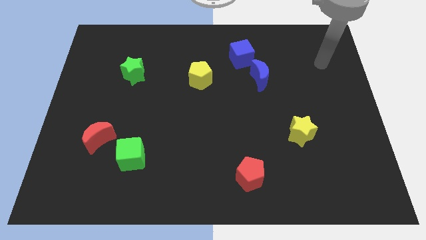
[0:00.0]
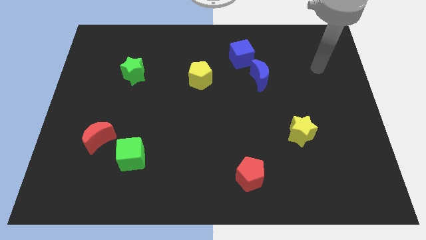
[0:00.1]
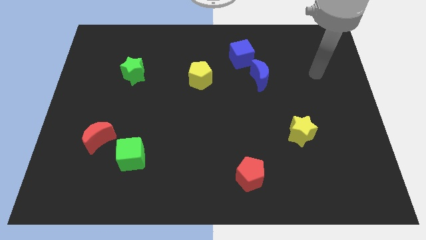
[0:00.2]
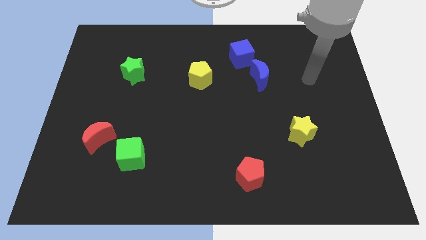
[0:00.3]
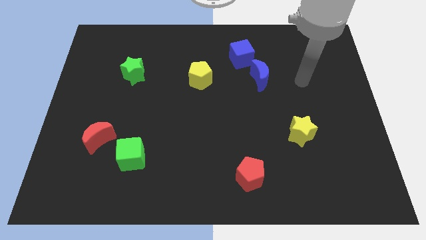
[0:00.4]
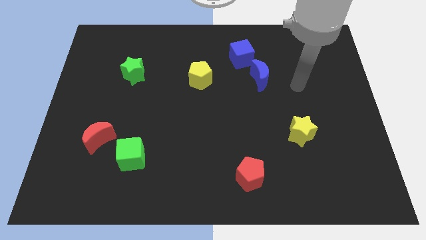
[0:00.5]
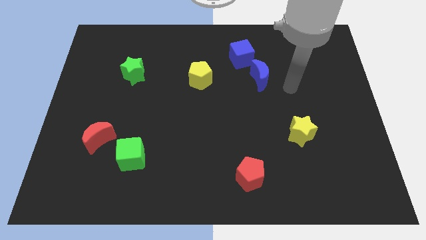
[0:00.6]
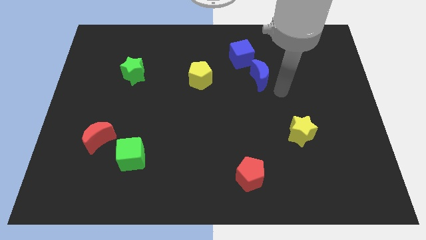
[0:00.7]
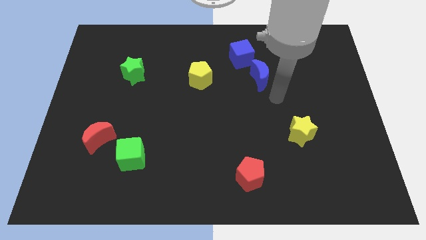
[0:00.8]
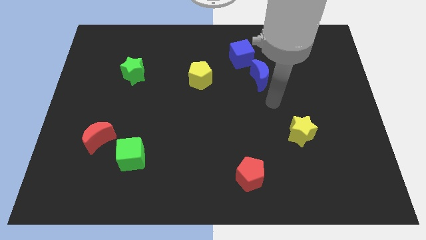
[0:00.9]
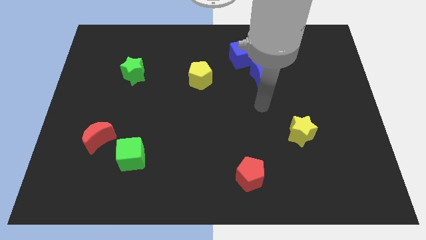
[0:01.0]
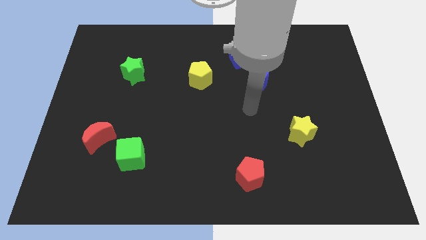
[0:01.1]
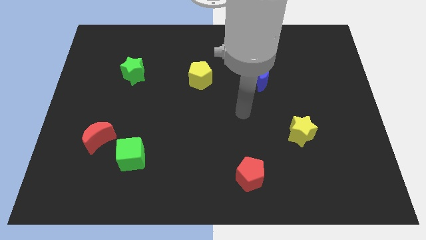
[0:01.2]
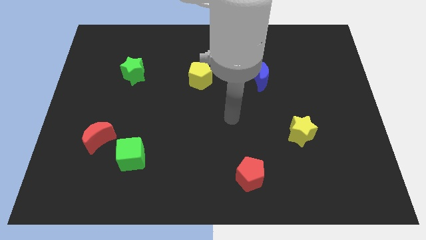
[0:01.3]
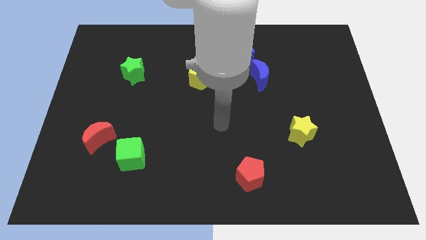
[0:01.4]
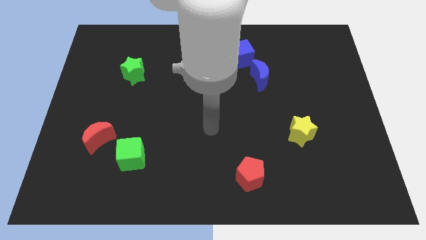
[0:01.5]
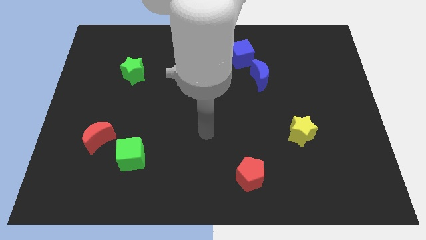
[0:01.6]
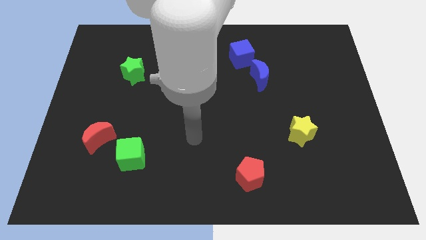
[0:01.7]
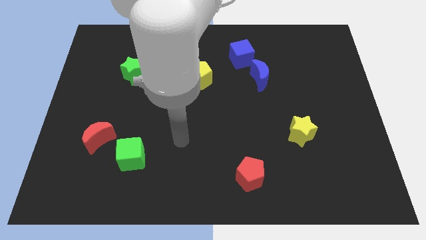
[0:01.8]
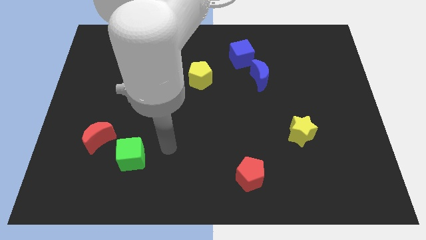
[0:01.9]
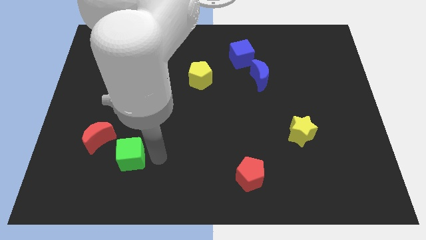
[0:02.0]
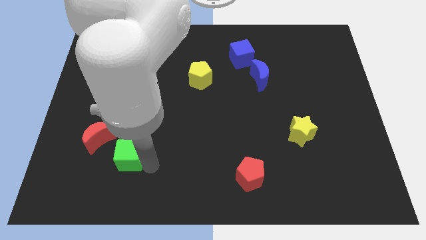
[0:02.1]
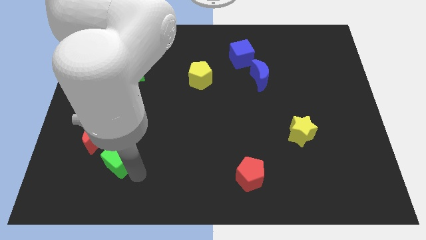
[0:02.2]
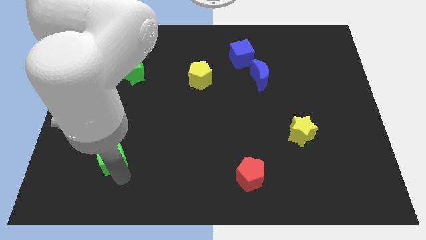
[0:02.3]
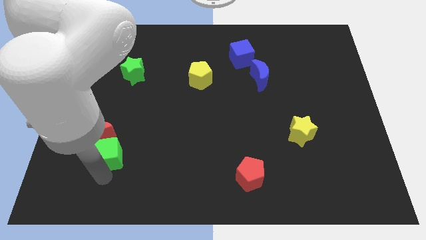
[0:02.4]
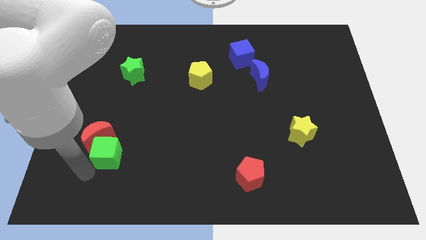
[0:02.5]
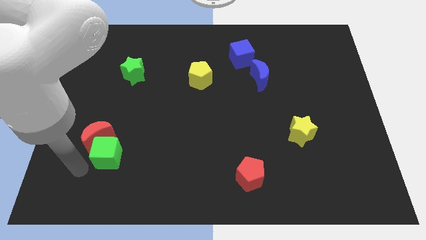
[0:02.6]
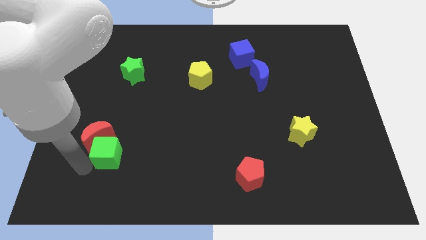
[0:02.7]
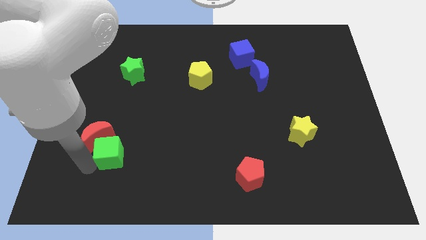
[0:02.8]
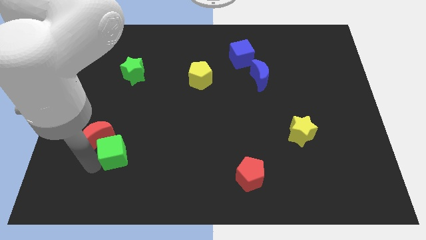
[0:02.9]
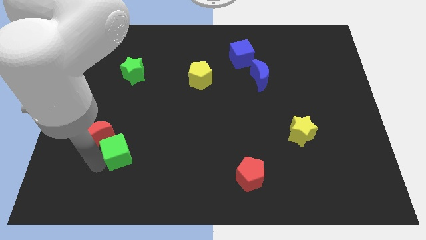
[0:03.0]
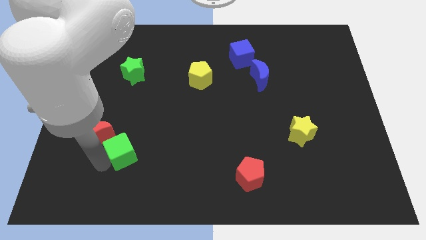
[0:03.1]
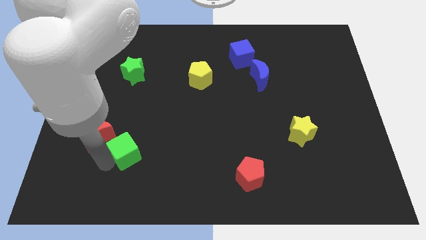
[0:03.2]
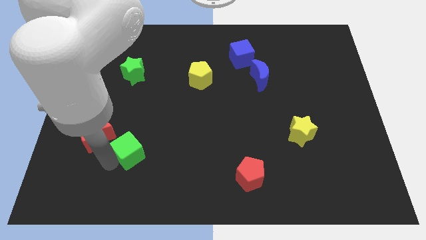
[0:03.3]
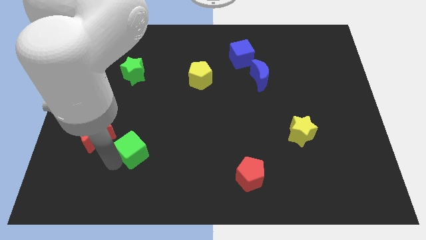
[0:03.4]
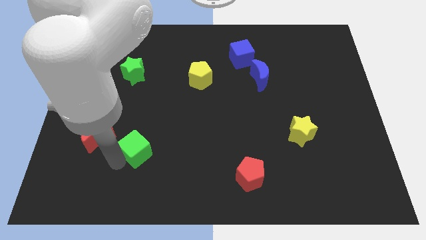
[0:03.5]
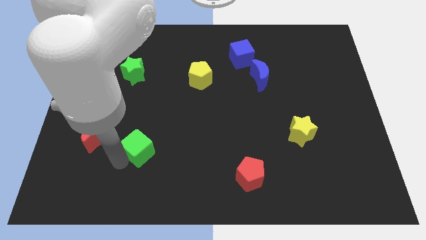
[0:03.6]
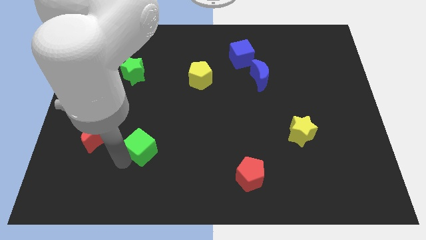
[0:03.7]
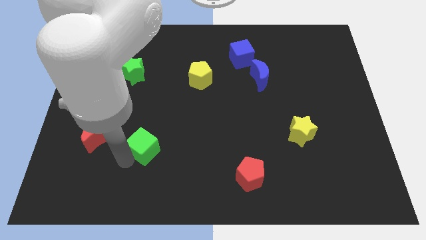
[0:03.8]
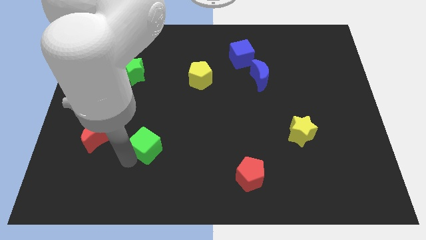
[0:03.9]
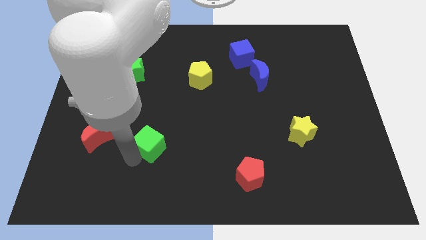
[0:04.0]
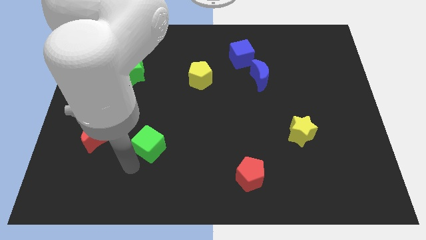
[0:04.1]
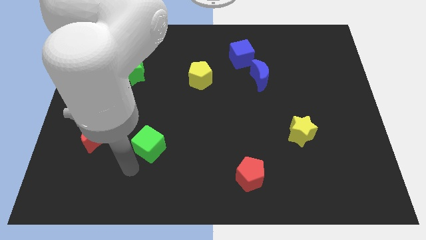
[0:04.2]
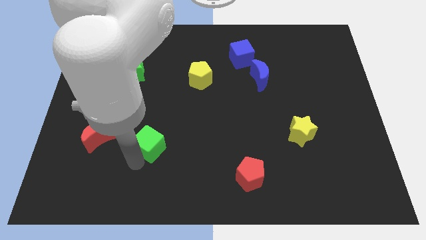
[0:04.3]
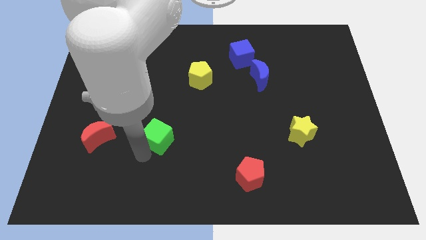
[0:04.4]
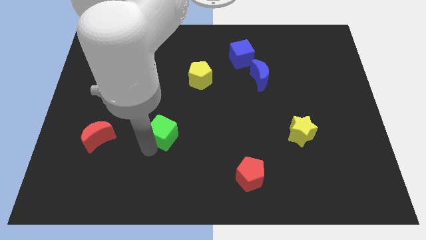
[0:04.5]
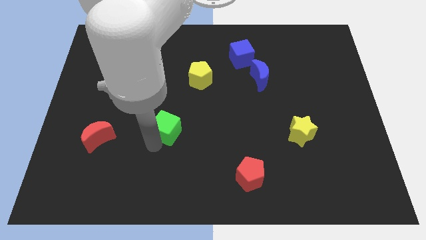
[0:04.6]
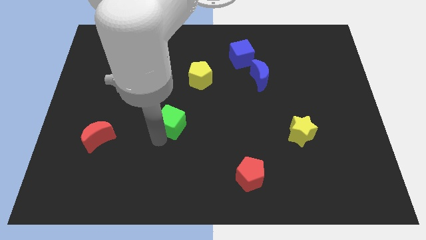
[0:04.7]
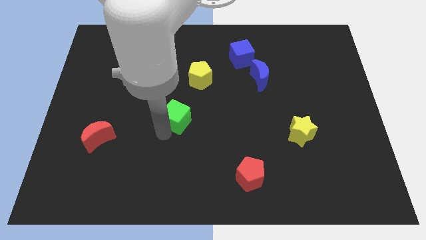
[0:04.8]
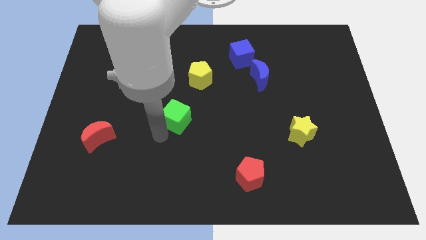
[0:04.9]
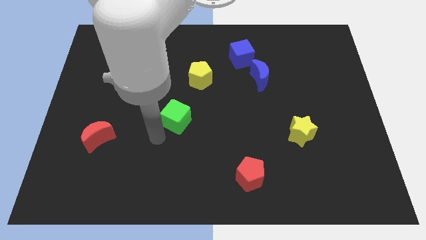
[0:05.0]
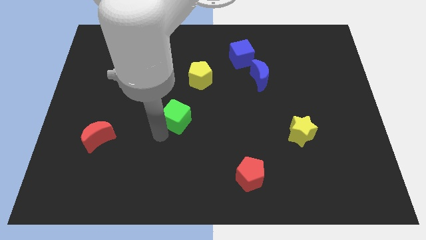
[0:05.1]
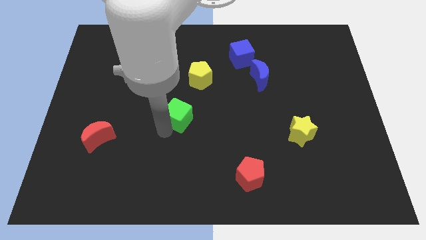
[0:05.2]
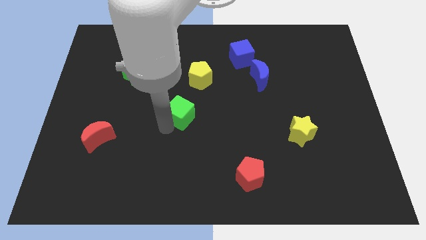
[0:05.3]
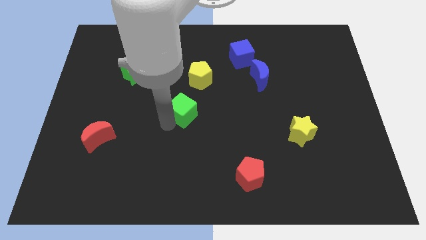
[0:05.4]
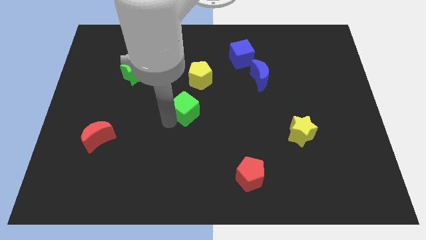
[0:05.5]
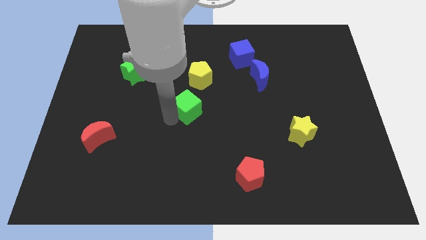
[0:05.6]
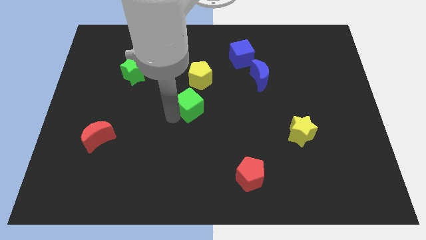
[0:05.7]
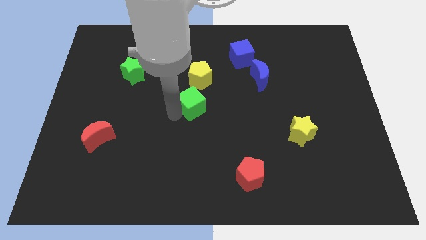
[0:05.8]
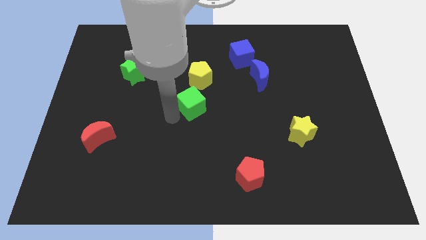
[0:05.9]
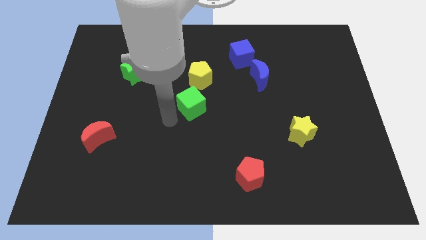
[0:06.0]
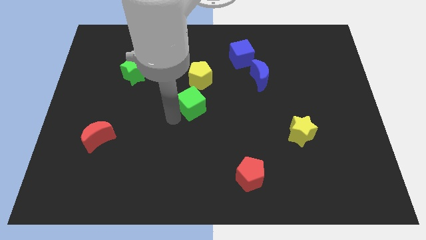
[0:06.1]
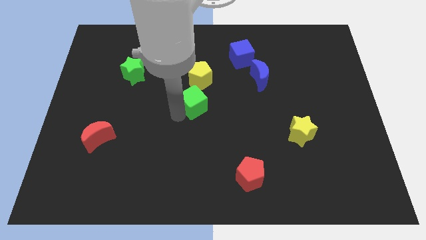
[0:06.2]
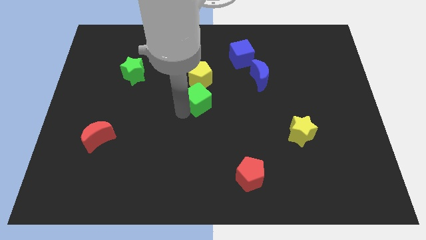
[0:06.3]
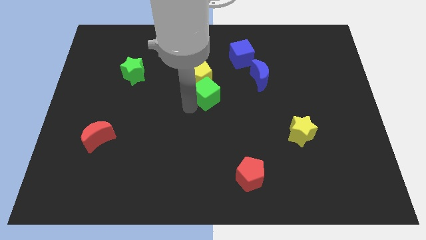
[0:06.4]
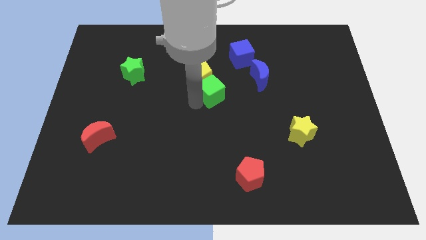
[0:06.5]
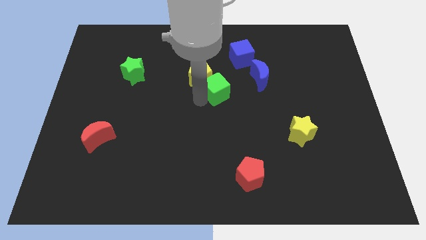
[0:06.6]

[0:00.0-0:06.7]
slide the green cube to the right of the yellow pentagon

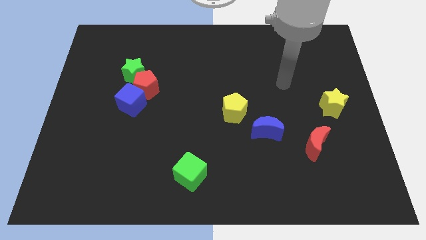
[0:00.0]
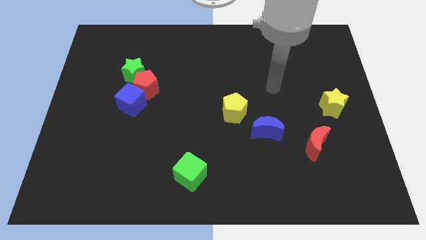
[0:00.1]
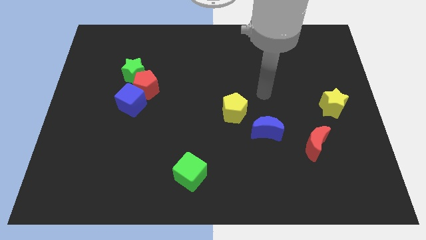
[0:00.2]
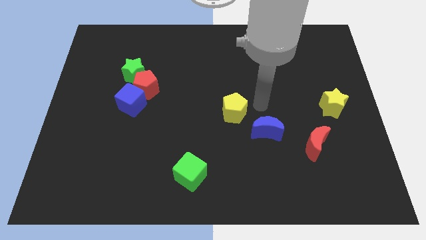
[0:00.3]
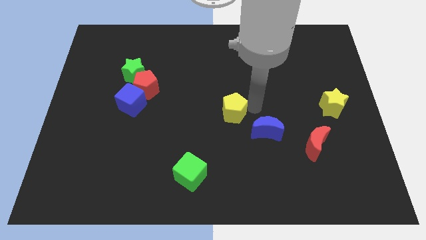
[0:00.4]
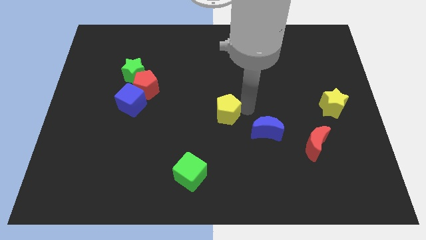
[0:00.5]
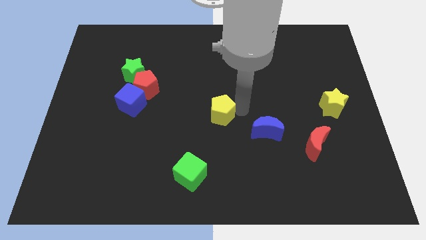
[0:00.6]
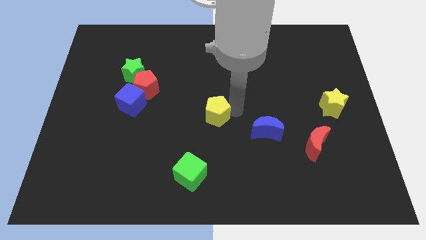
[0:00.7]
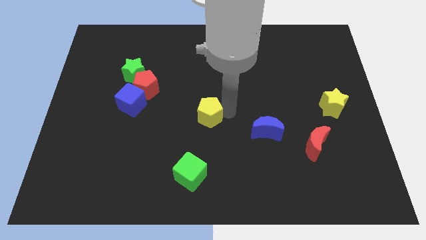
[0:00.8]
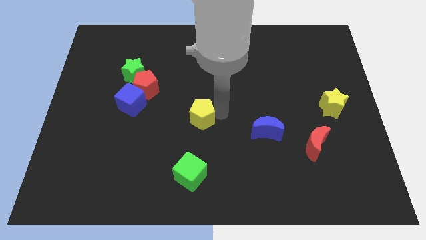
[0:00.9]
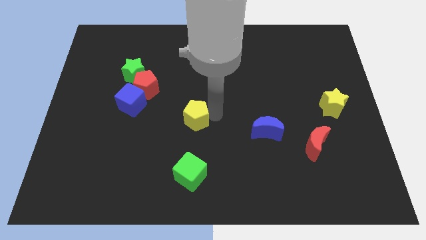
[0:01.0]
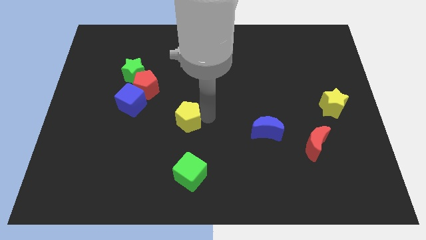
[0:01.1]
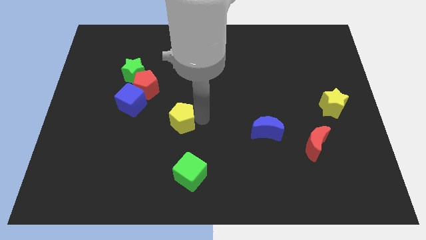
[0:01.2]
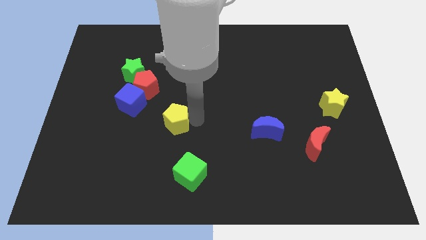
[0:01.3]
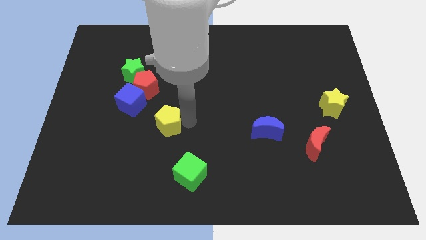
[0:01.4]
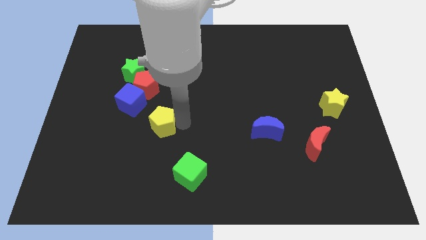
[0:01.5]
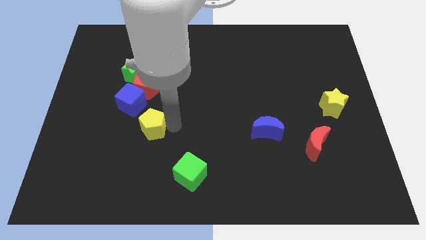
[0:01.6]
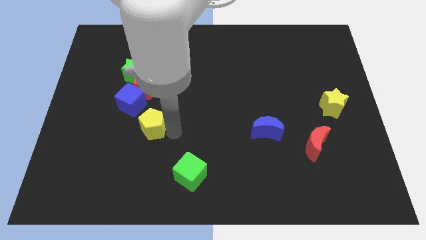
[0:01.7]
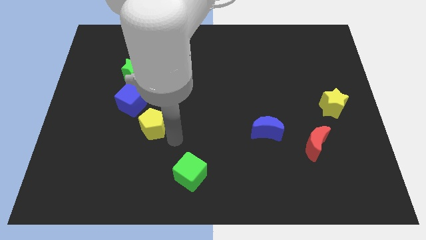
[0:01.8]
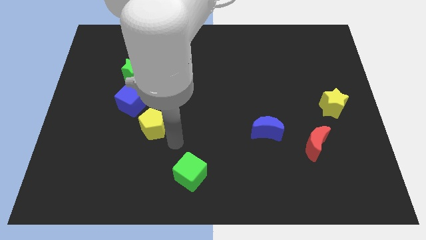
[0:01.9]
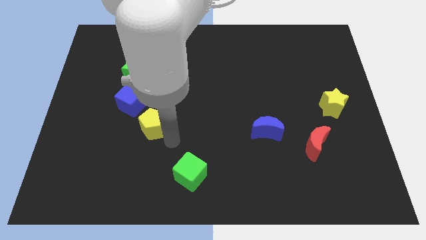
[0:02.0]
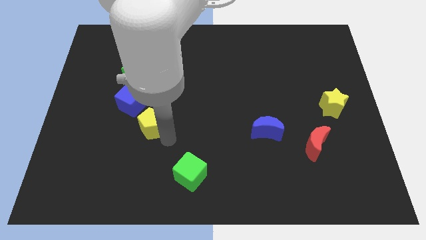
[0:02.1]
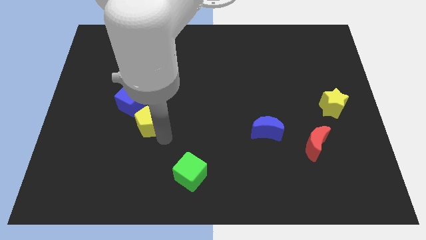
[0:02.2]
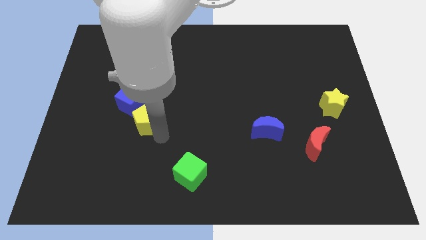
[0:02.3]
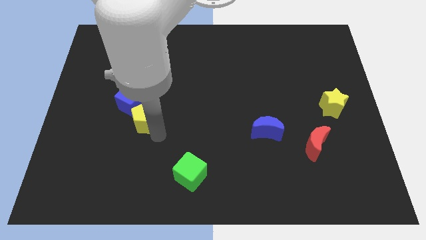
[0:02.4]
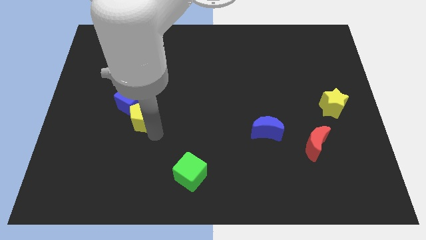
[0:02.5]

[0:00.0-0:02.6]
slide the yellow pentagon below the green star
